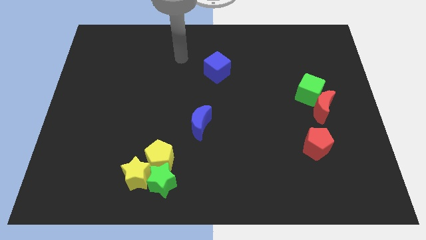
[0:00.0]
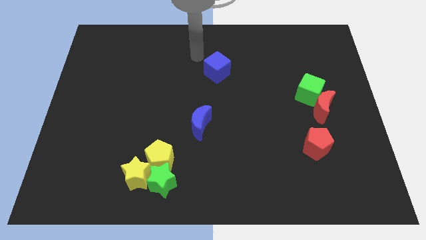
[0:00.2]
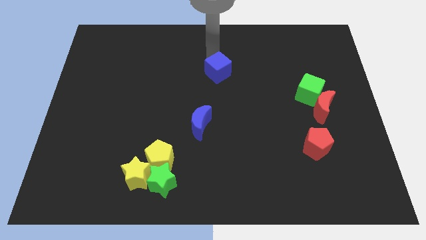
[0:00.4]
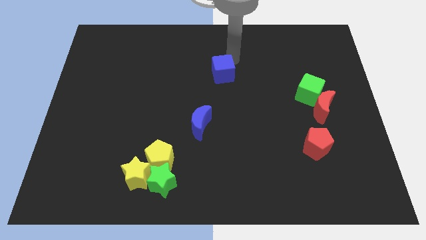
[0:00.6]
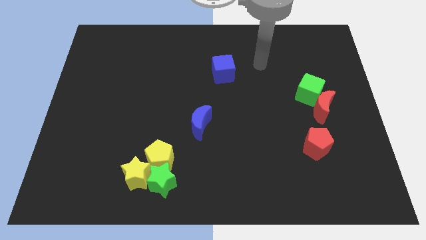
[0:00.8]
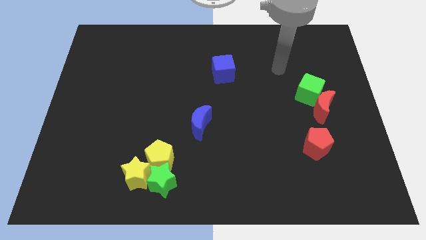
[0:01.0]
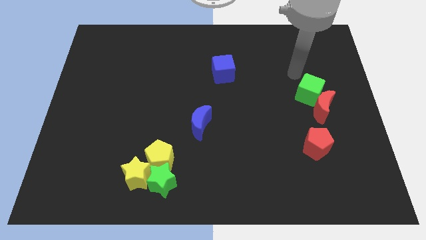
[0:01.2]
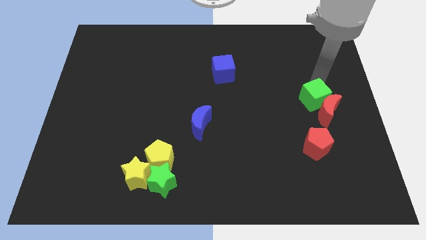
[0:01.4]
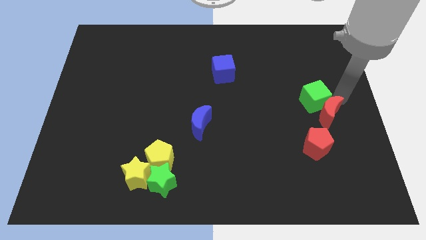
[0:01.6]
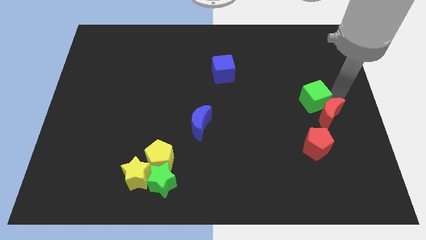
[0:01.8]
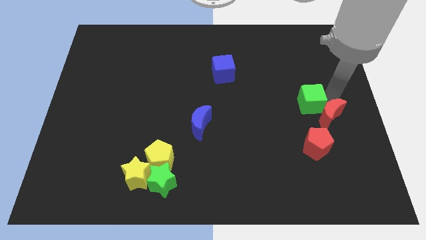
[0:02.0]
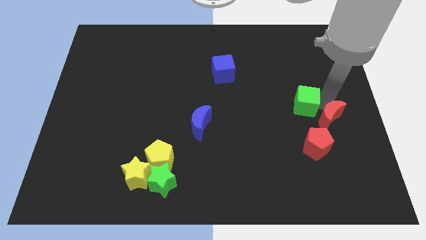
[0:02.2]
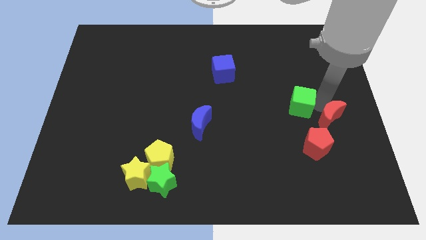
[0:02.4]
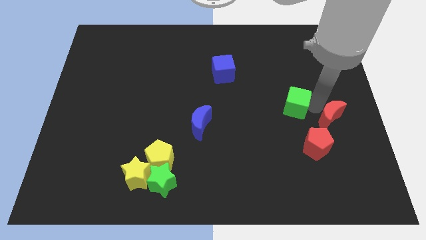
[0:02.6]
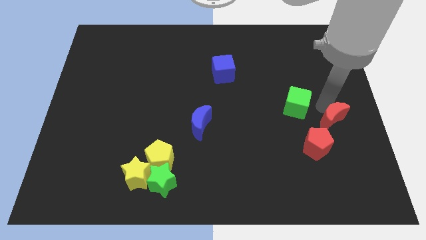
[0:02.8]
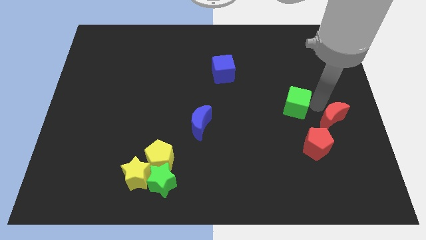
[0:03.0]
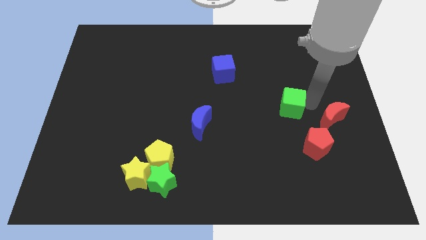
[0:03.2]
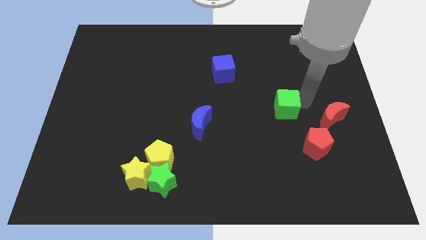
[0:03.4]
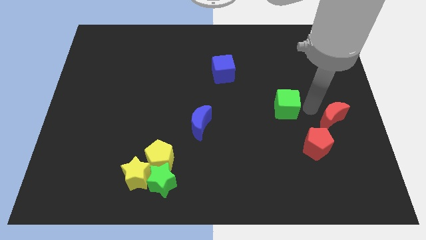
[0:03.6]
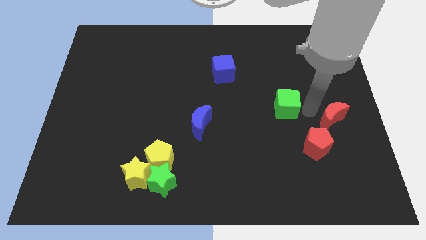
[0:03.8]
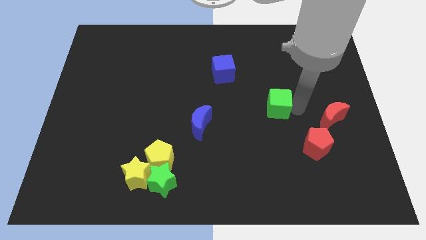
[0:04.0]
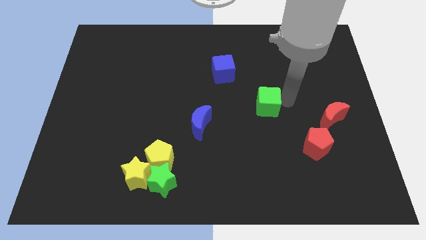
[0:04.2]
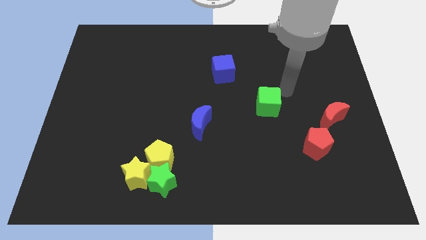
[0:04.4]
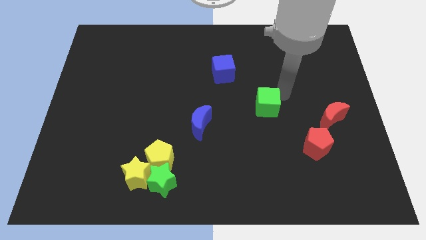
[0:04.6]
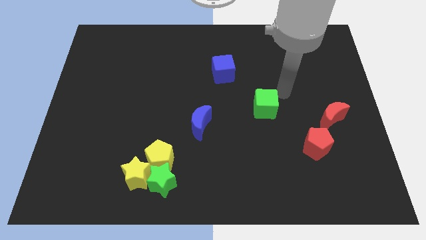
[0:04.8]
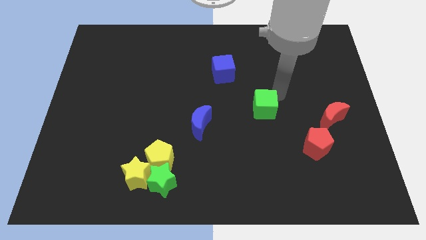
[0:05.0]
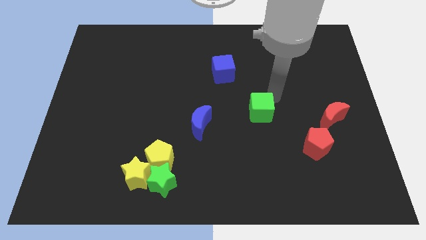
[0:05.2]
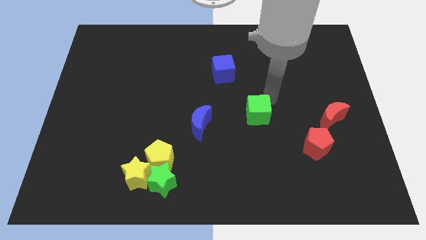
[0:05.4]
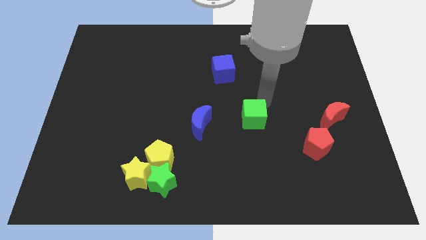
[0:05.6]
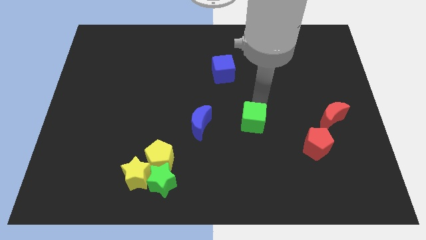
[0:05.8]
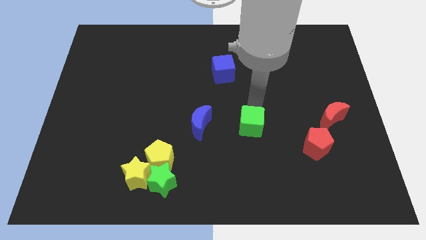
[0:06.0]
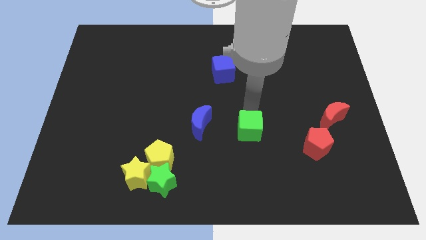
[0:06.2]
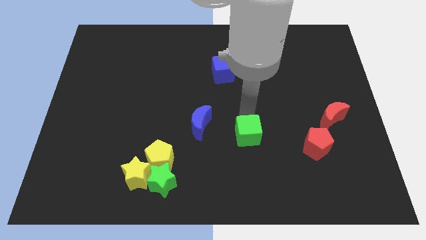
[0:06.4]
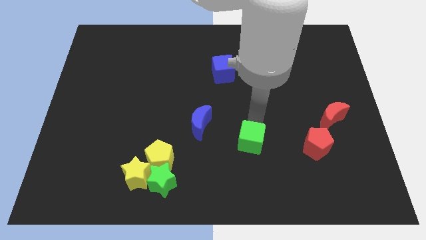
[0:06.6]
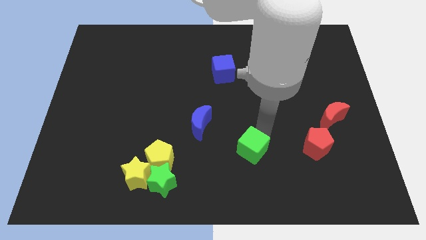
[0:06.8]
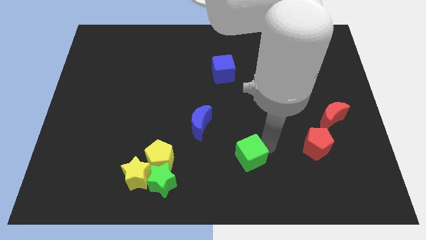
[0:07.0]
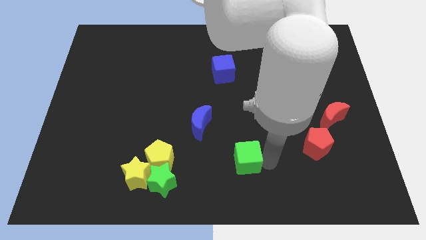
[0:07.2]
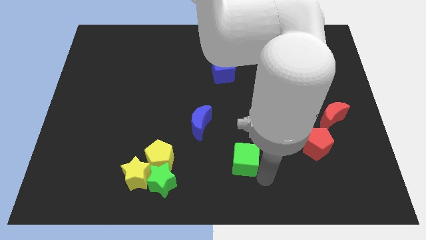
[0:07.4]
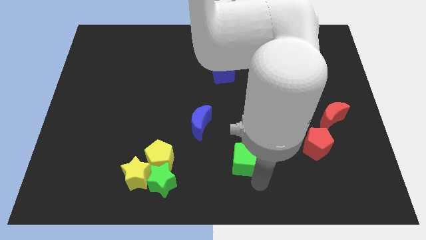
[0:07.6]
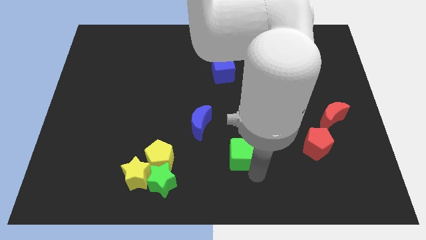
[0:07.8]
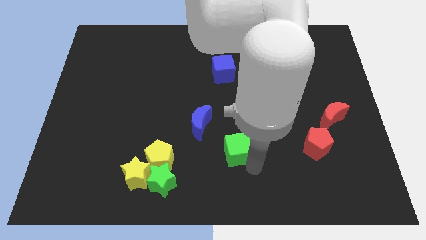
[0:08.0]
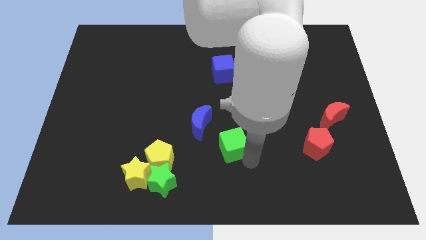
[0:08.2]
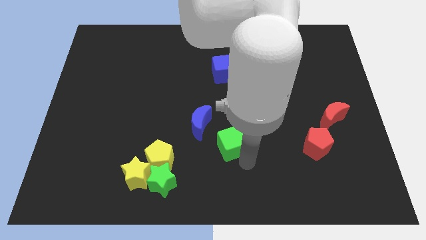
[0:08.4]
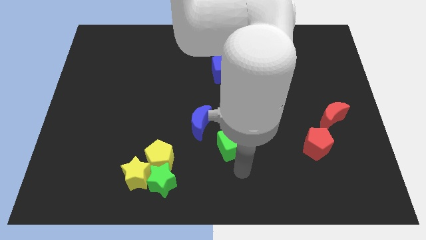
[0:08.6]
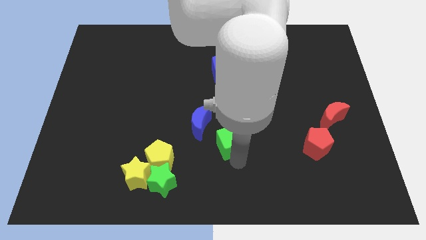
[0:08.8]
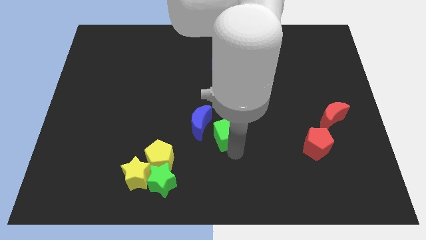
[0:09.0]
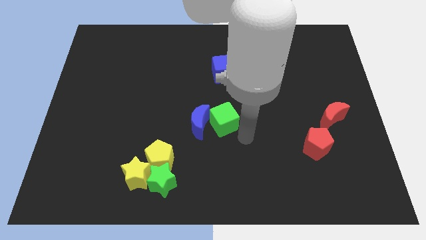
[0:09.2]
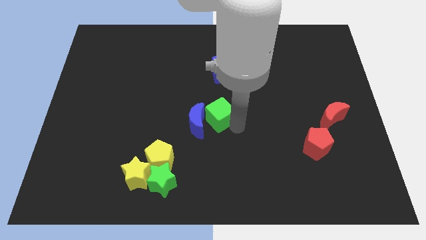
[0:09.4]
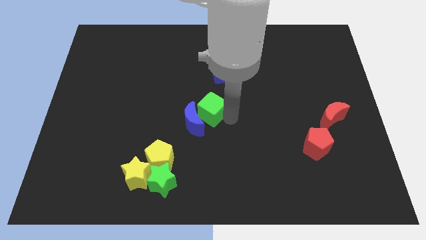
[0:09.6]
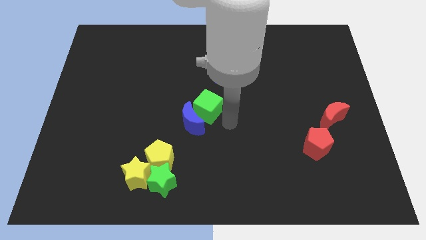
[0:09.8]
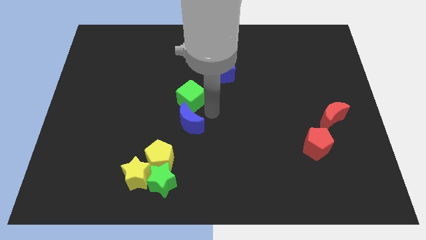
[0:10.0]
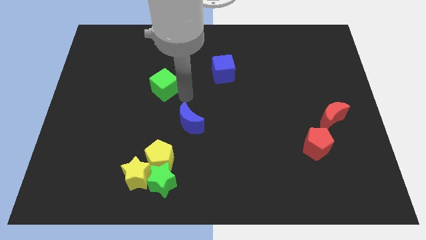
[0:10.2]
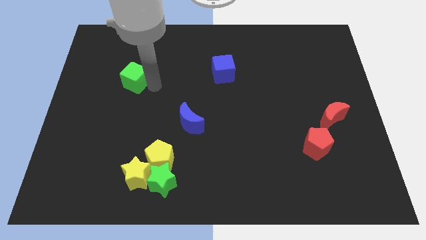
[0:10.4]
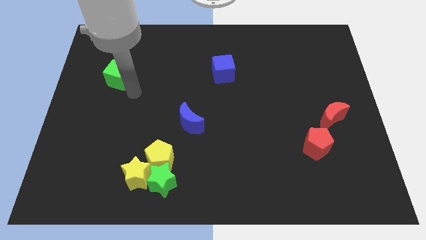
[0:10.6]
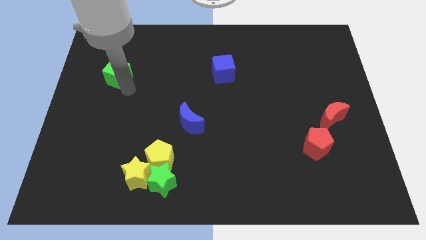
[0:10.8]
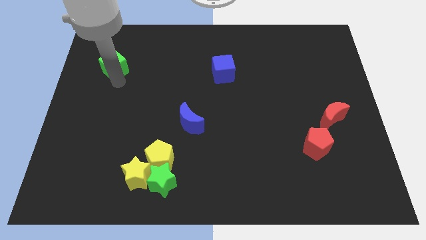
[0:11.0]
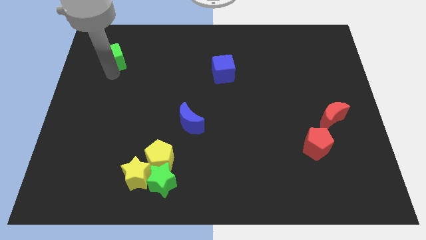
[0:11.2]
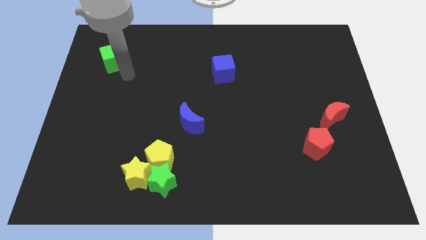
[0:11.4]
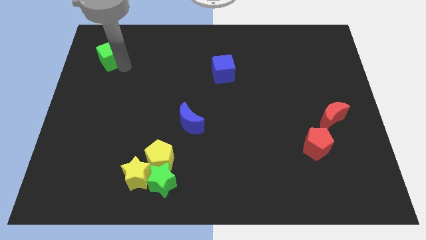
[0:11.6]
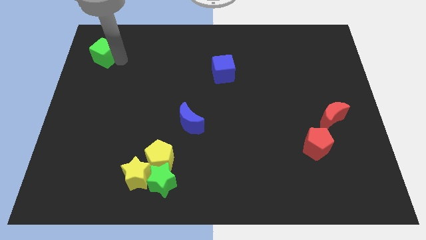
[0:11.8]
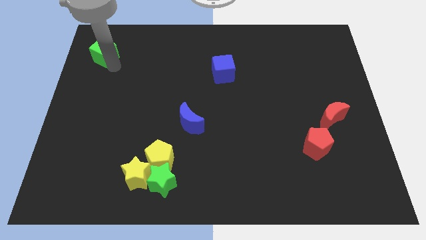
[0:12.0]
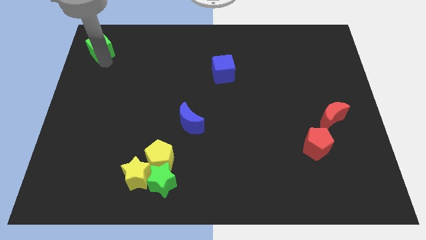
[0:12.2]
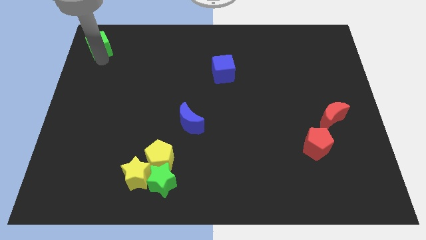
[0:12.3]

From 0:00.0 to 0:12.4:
move the green cube to the top left

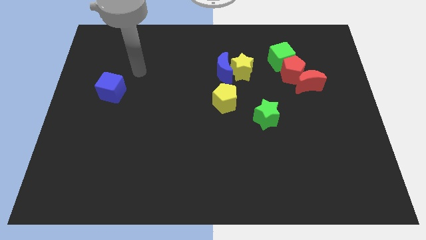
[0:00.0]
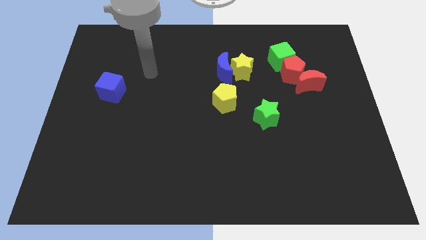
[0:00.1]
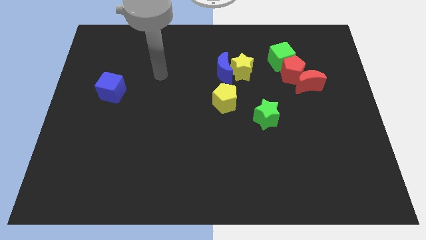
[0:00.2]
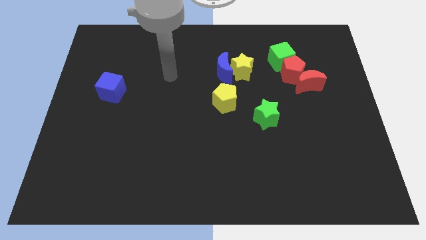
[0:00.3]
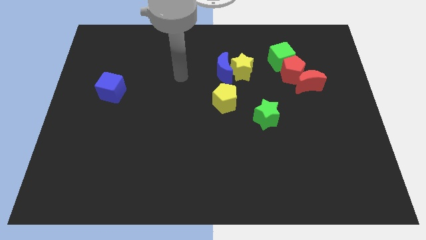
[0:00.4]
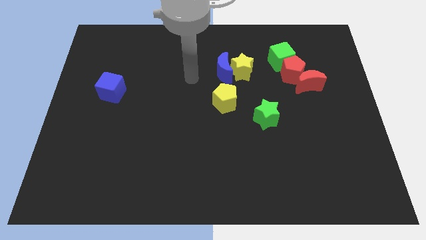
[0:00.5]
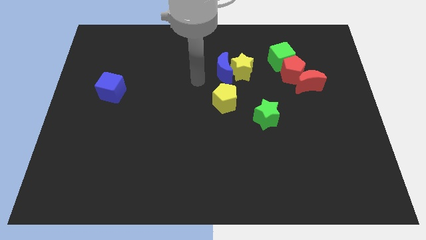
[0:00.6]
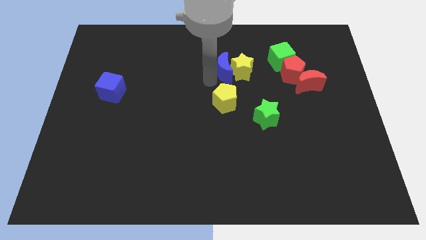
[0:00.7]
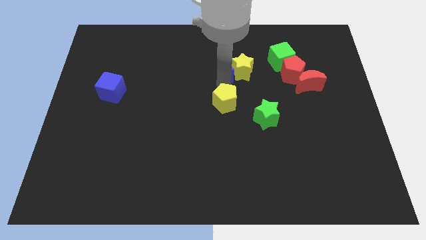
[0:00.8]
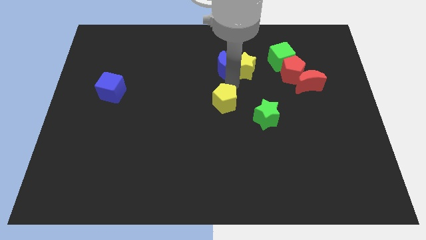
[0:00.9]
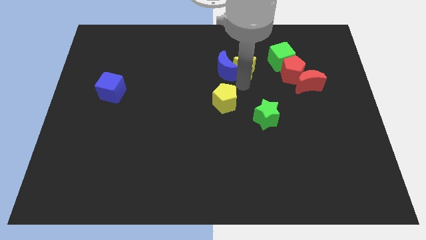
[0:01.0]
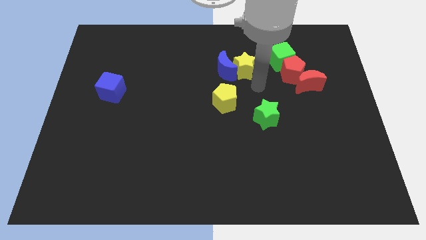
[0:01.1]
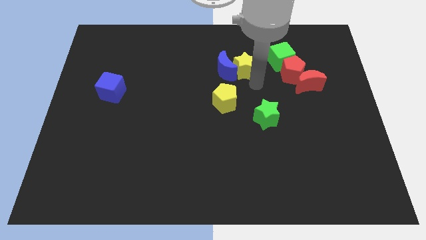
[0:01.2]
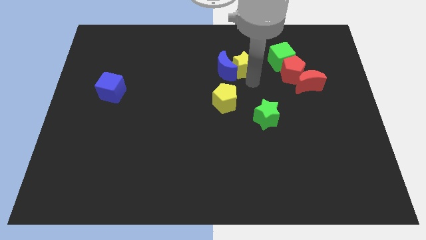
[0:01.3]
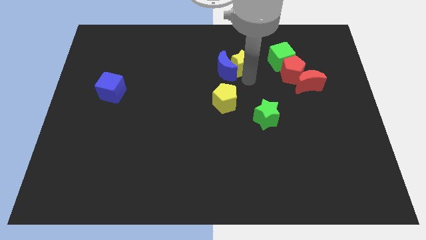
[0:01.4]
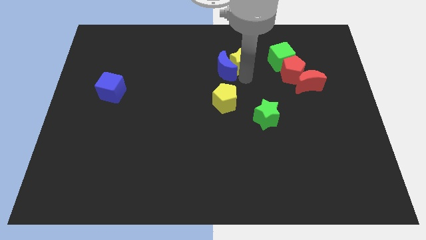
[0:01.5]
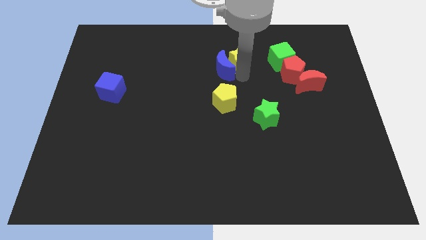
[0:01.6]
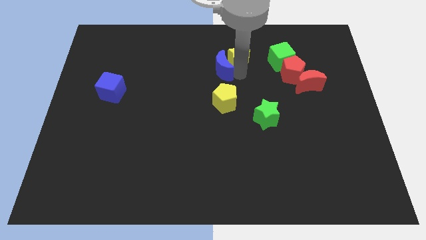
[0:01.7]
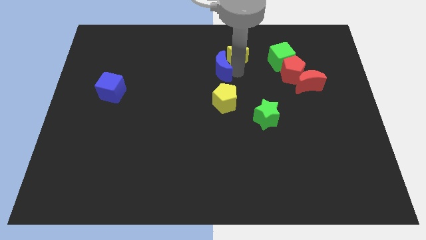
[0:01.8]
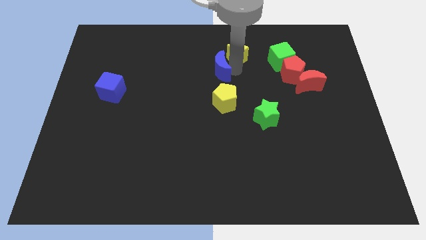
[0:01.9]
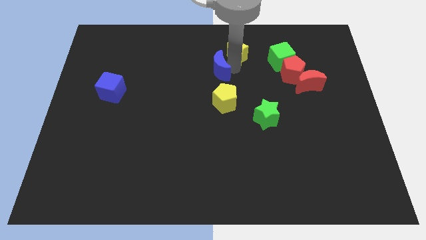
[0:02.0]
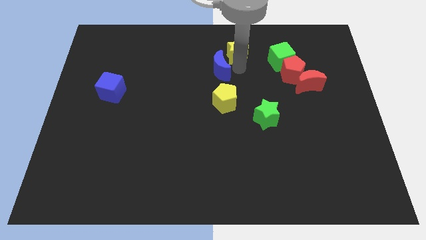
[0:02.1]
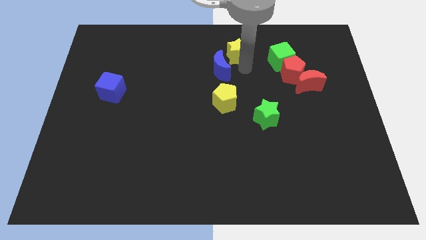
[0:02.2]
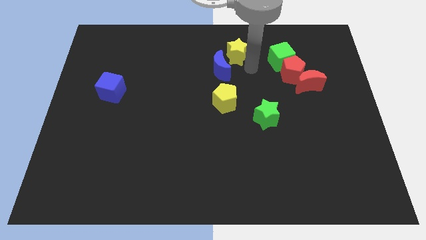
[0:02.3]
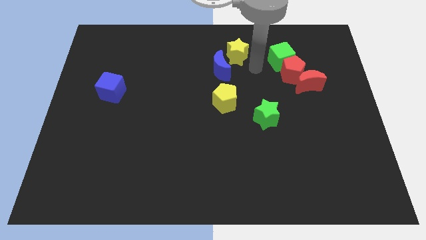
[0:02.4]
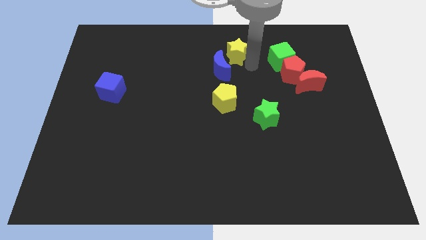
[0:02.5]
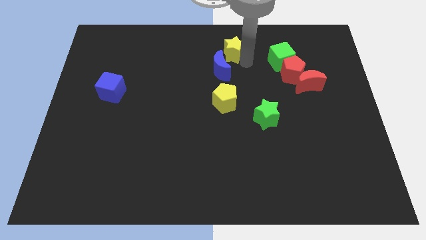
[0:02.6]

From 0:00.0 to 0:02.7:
slide the yellow star to the towards your base
